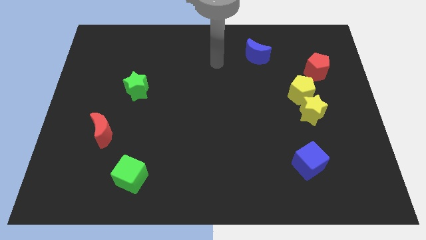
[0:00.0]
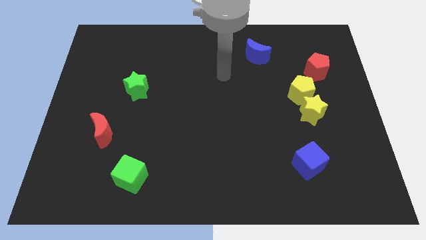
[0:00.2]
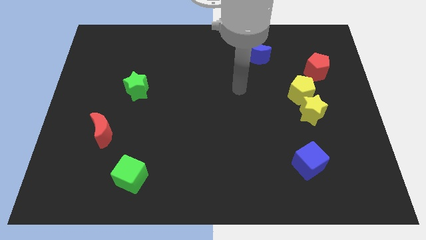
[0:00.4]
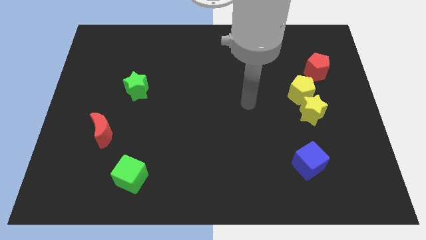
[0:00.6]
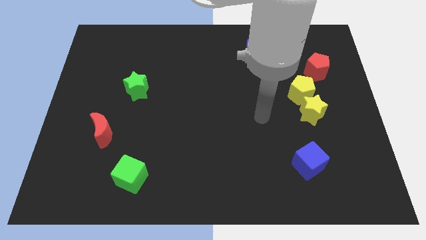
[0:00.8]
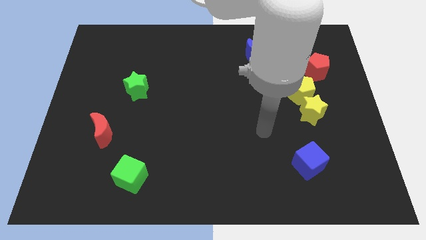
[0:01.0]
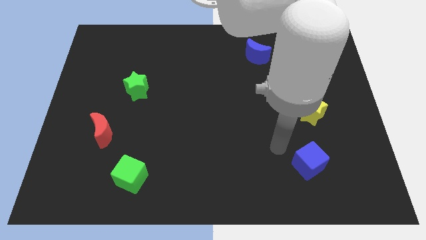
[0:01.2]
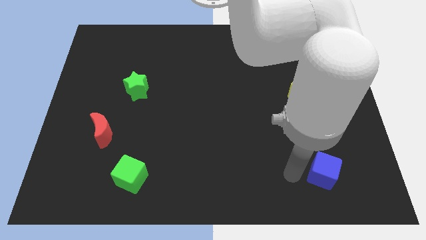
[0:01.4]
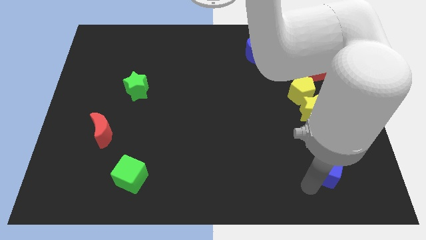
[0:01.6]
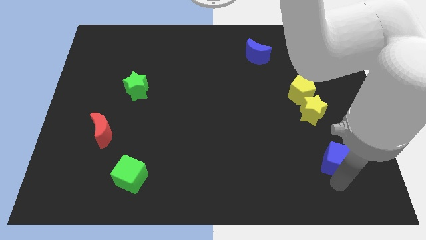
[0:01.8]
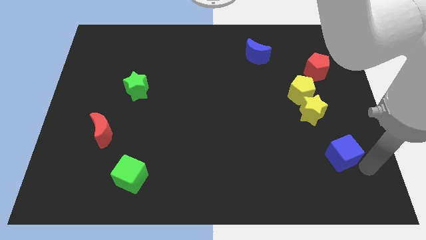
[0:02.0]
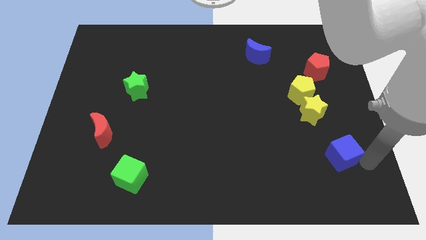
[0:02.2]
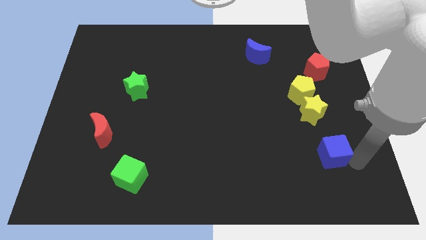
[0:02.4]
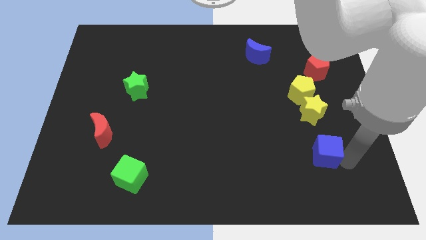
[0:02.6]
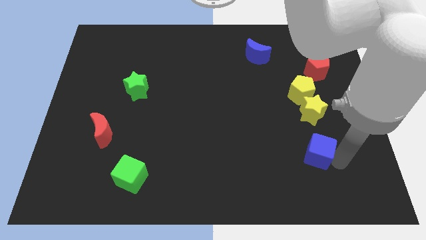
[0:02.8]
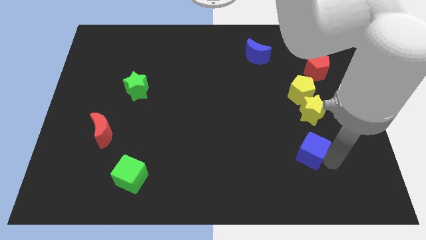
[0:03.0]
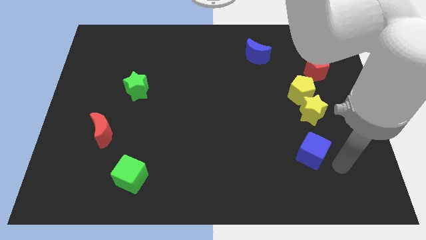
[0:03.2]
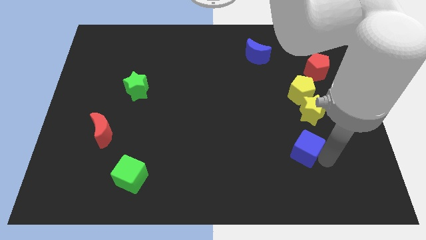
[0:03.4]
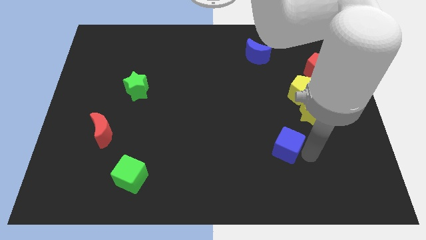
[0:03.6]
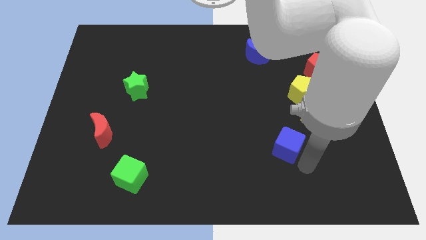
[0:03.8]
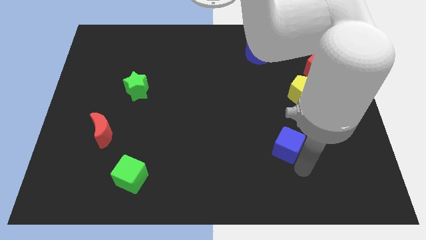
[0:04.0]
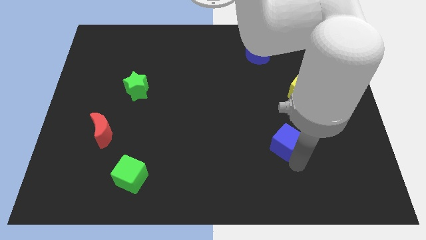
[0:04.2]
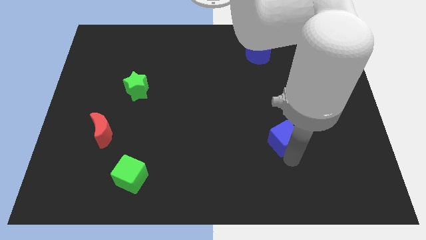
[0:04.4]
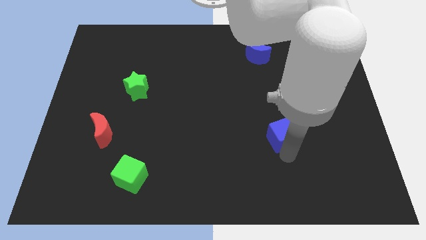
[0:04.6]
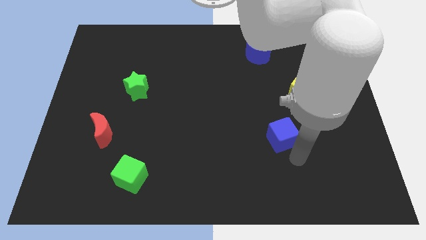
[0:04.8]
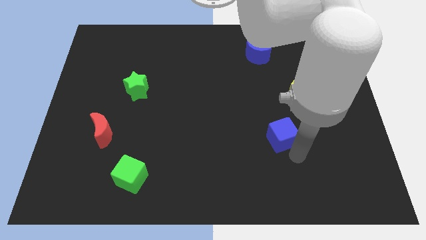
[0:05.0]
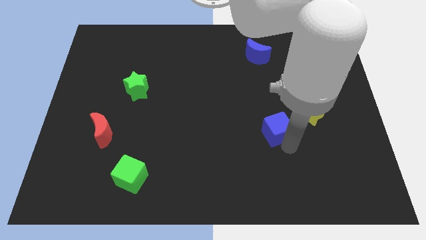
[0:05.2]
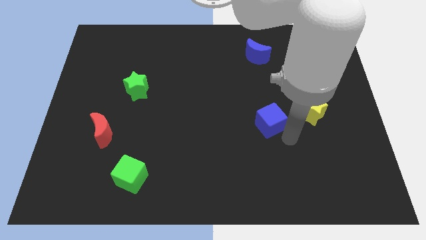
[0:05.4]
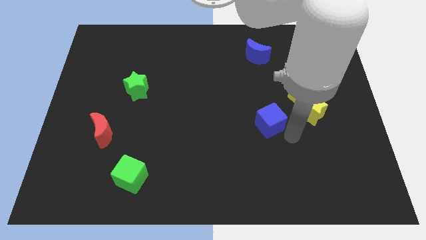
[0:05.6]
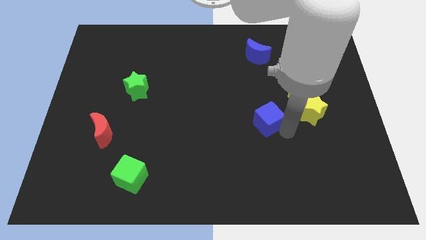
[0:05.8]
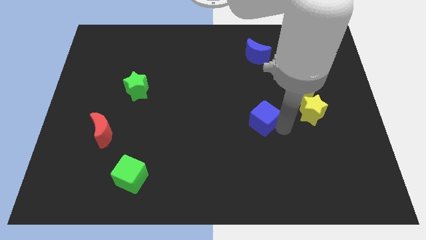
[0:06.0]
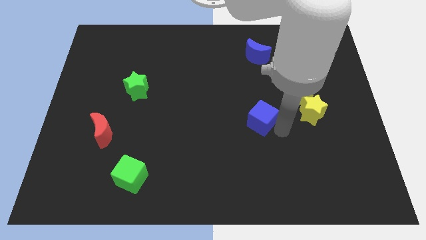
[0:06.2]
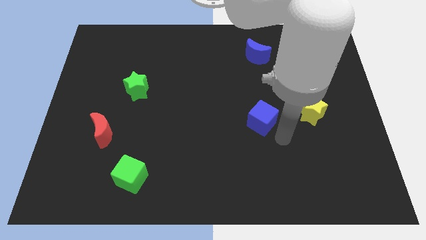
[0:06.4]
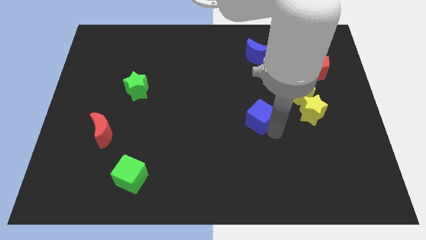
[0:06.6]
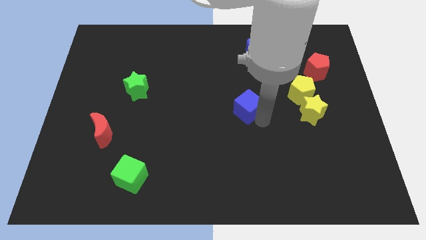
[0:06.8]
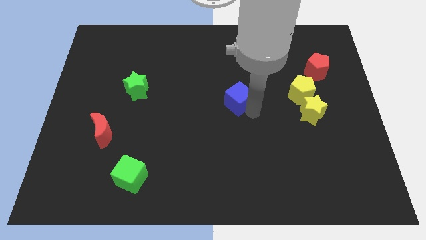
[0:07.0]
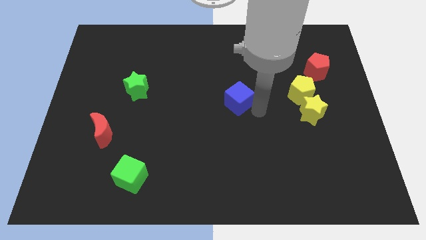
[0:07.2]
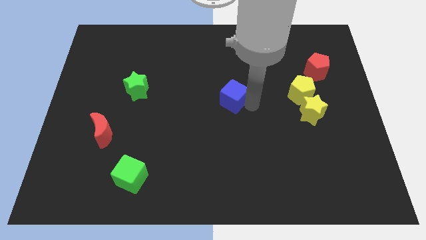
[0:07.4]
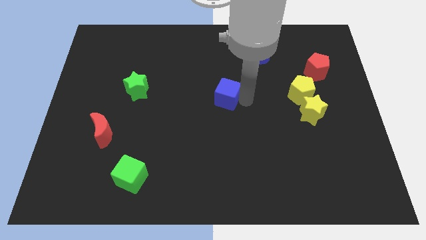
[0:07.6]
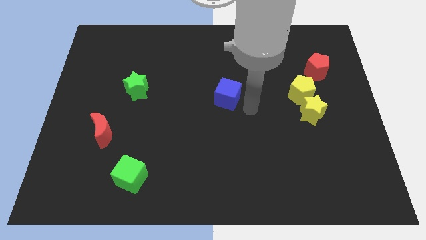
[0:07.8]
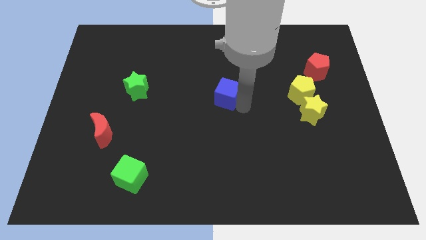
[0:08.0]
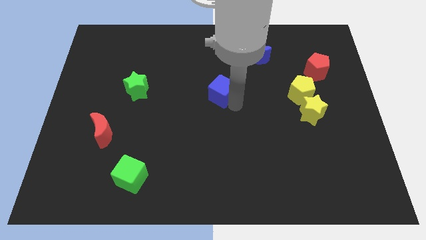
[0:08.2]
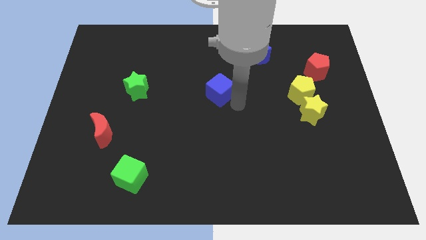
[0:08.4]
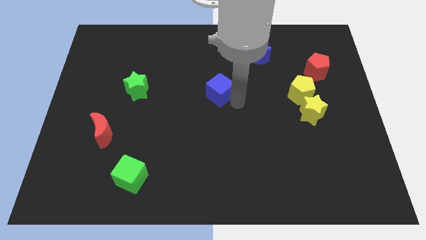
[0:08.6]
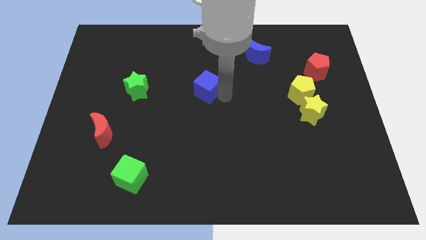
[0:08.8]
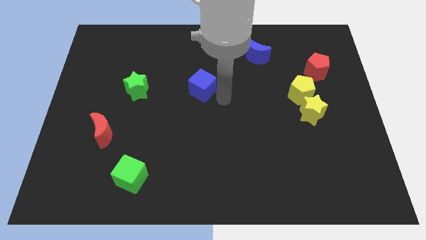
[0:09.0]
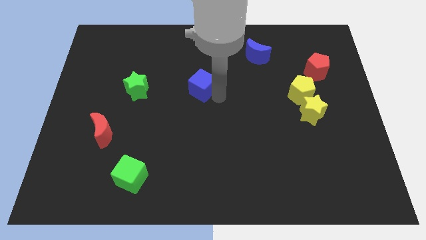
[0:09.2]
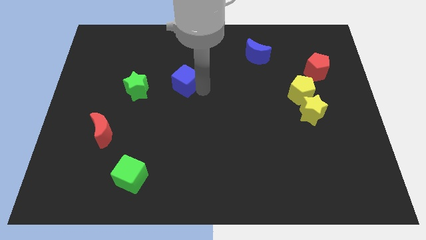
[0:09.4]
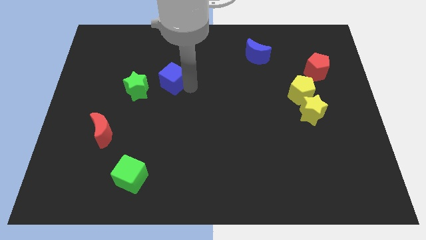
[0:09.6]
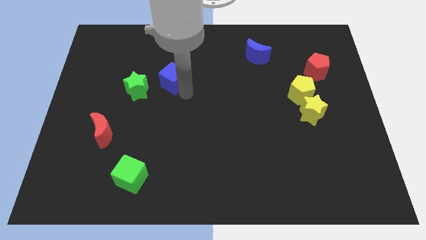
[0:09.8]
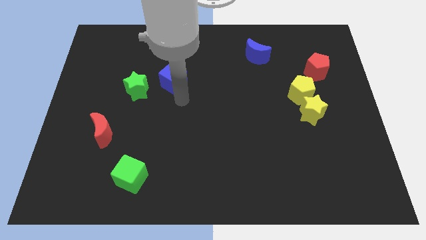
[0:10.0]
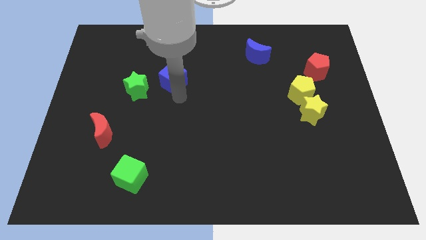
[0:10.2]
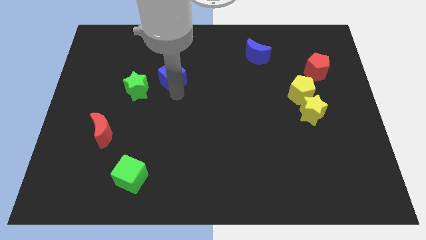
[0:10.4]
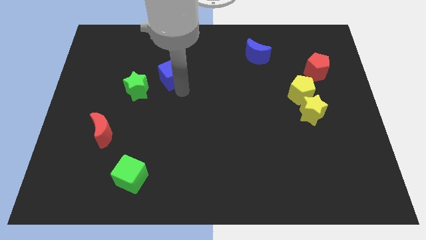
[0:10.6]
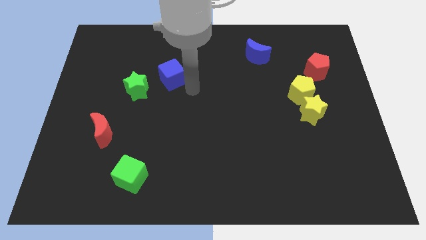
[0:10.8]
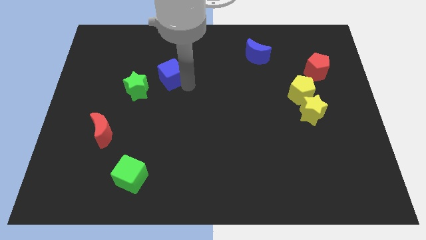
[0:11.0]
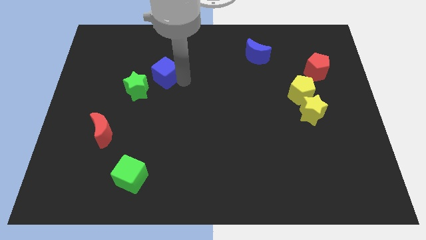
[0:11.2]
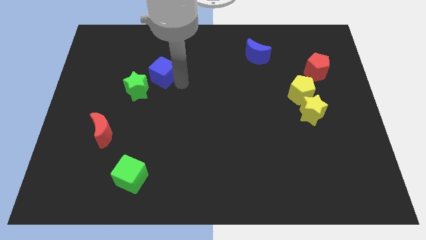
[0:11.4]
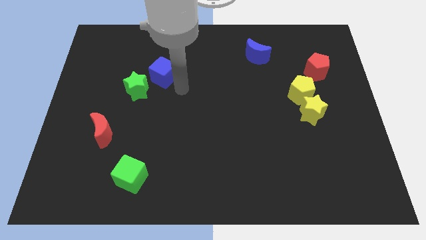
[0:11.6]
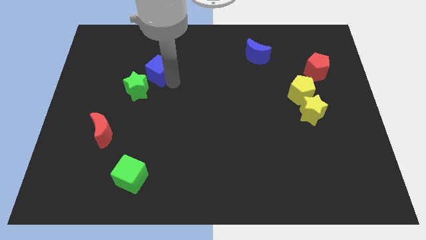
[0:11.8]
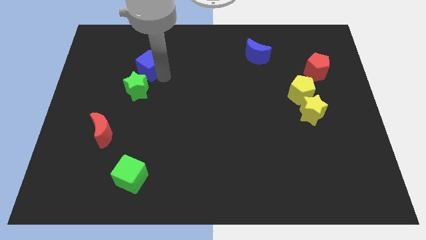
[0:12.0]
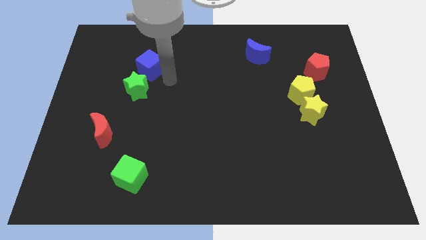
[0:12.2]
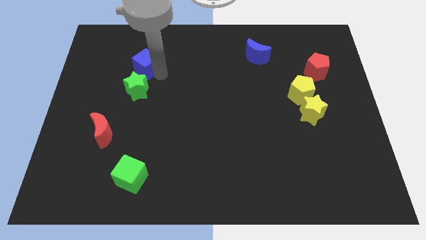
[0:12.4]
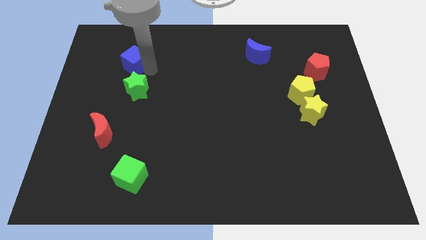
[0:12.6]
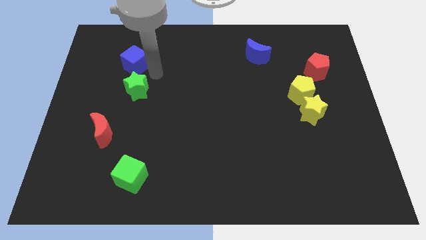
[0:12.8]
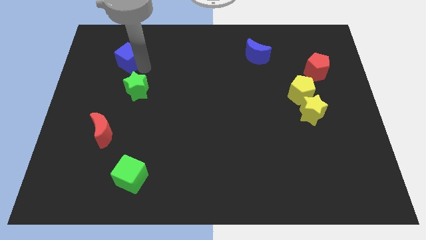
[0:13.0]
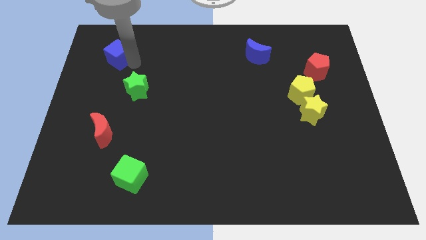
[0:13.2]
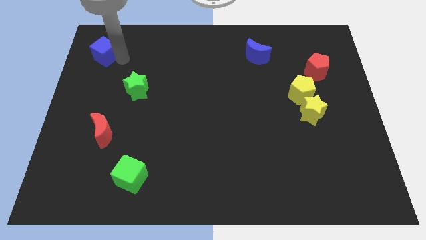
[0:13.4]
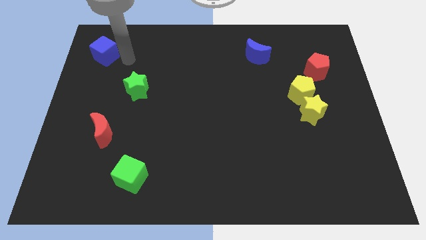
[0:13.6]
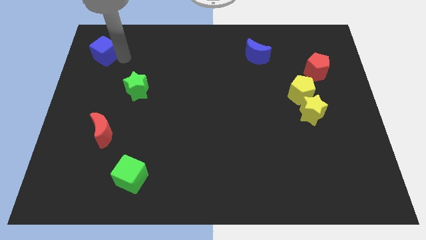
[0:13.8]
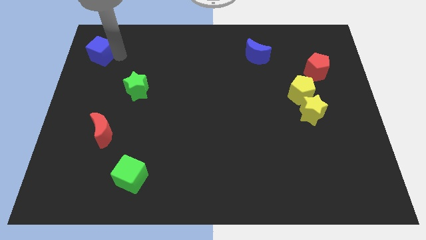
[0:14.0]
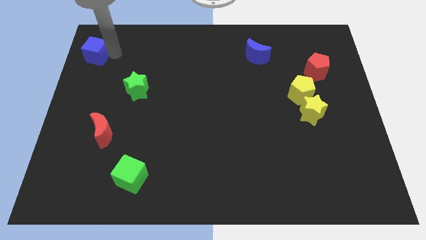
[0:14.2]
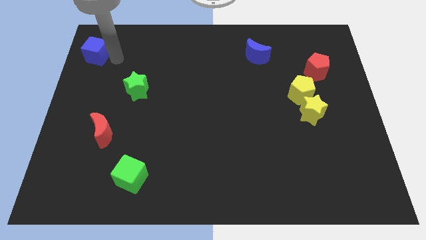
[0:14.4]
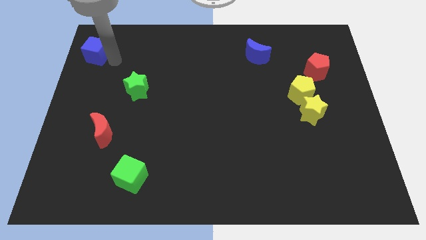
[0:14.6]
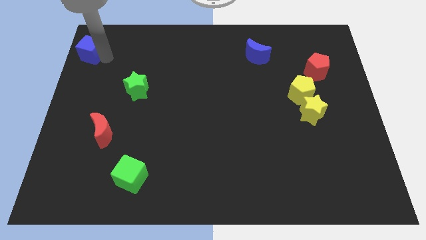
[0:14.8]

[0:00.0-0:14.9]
put the blue cube to the top left of the board
